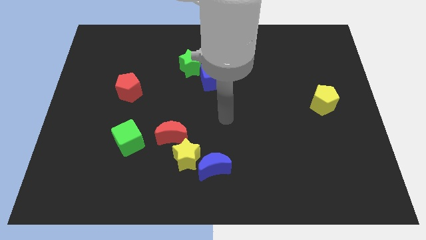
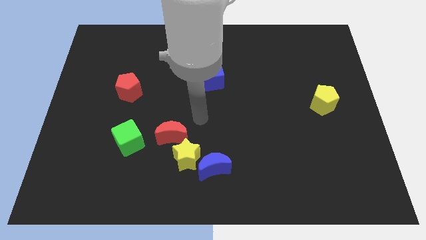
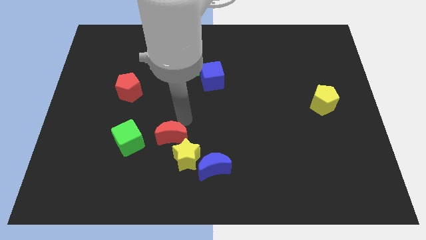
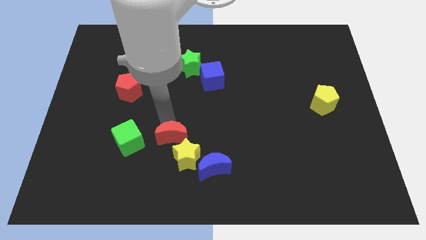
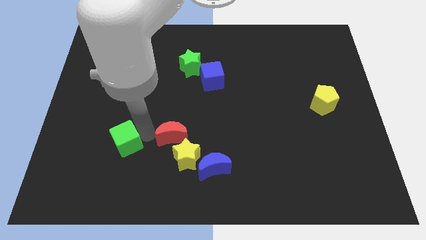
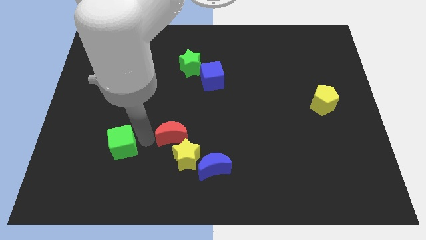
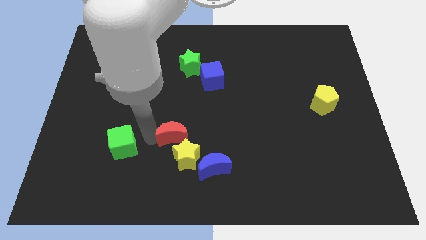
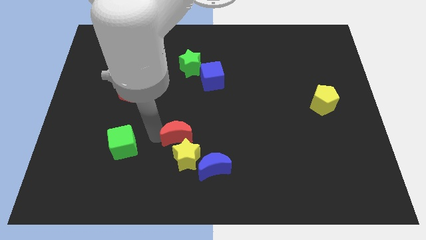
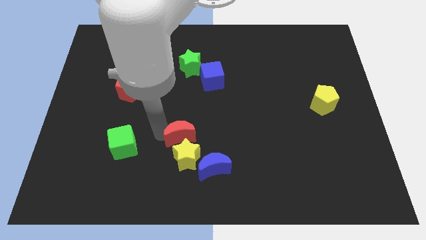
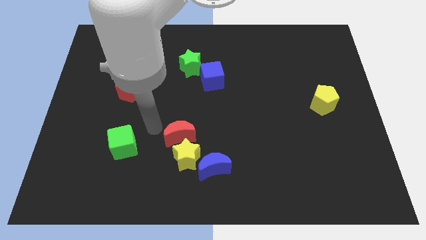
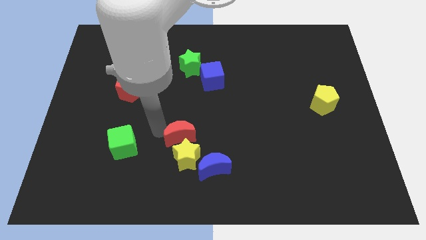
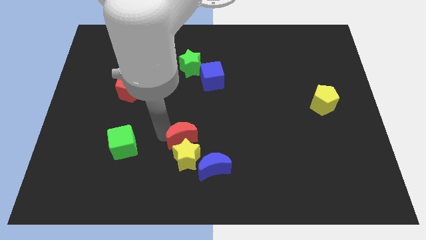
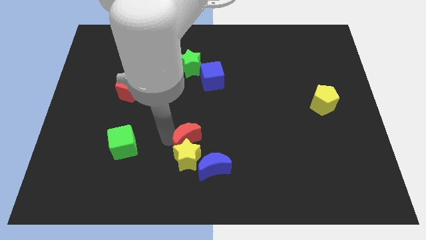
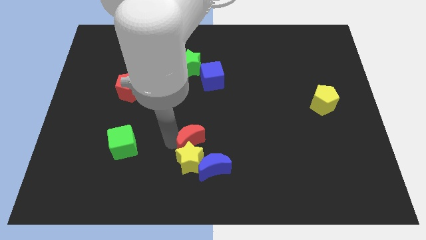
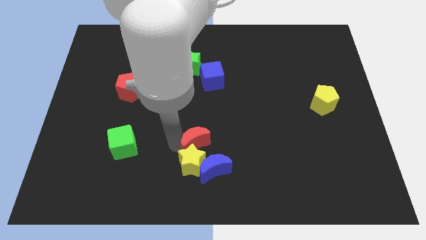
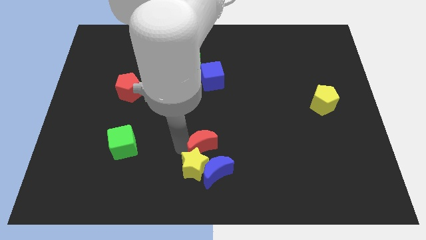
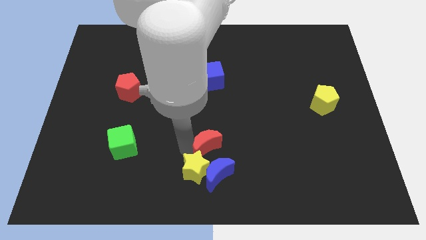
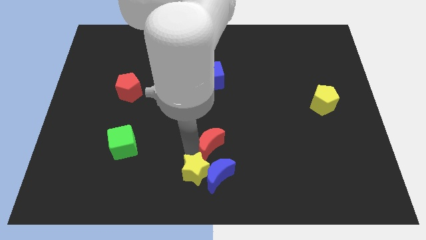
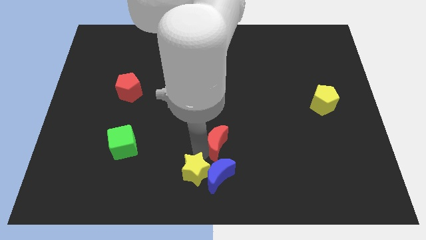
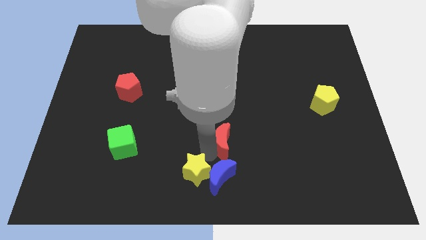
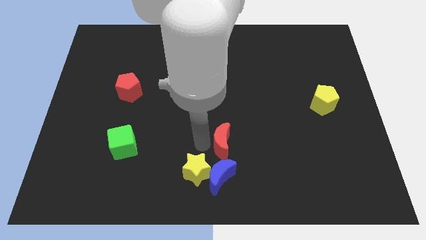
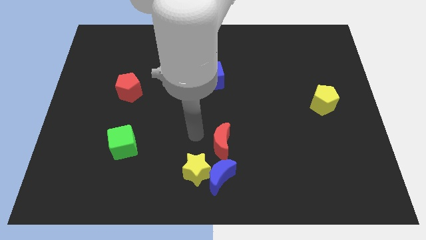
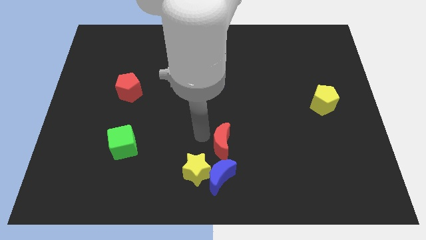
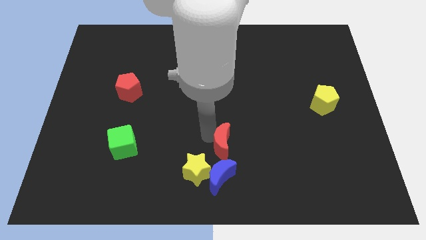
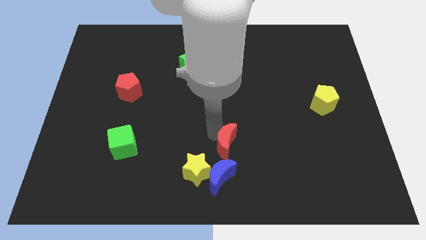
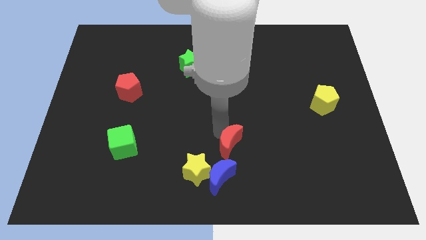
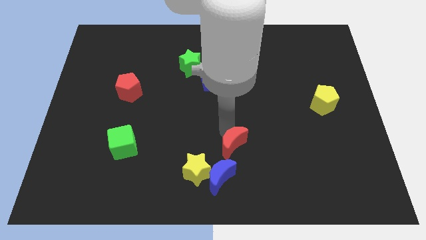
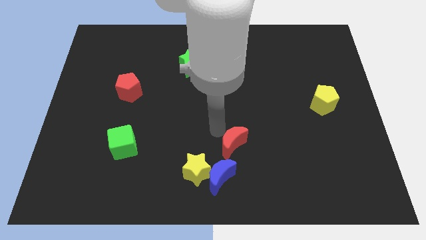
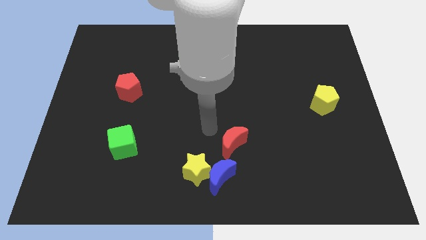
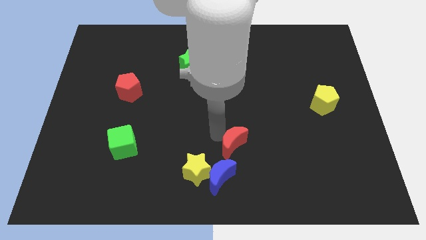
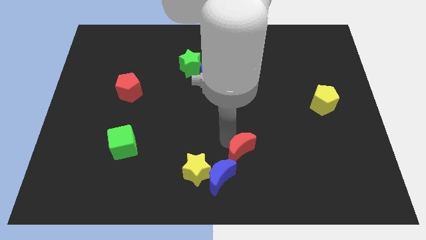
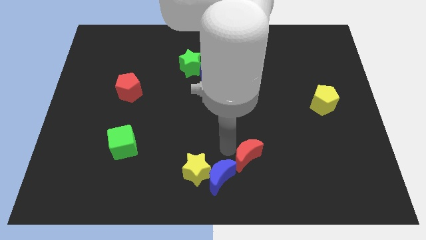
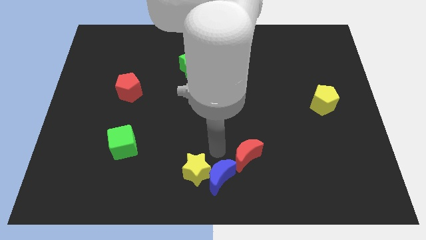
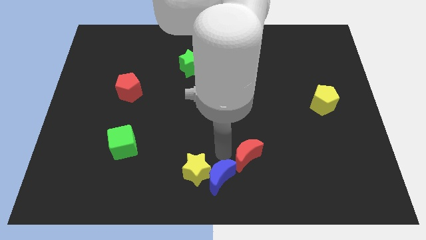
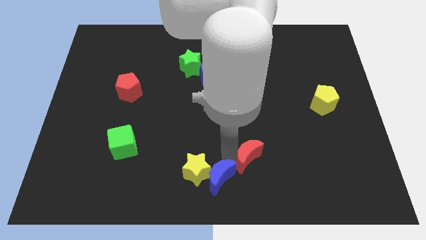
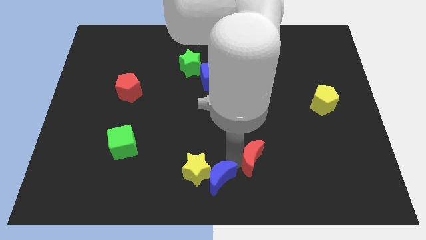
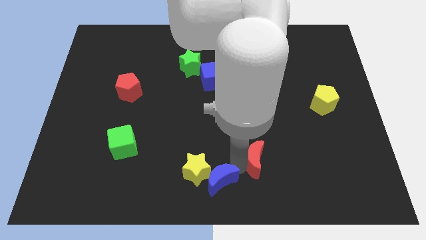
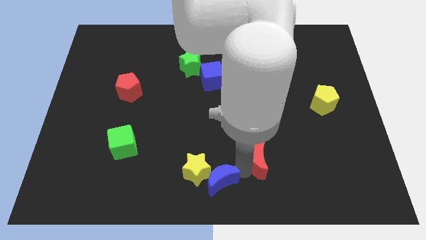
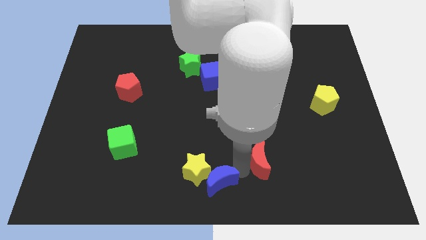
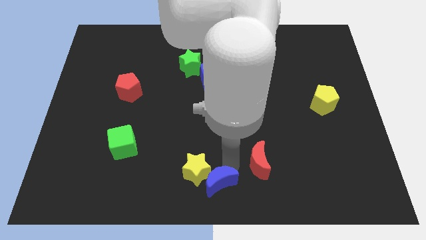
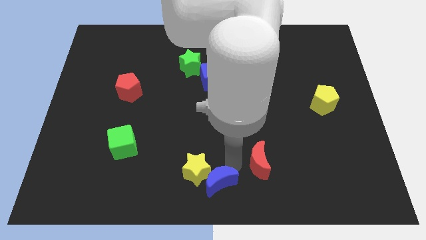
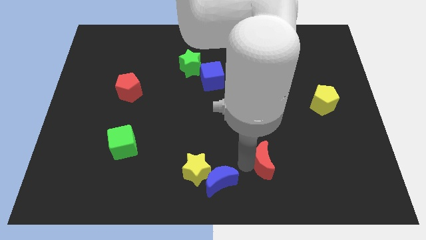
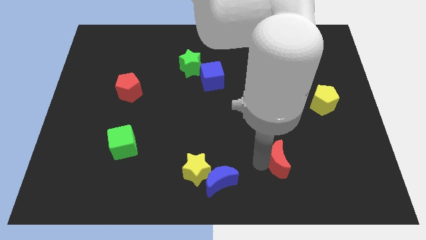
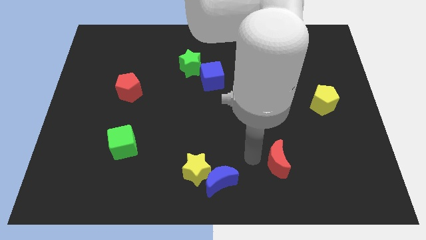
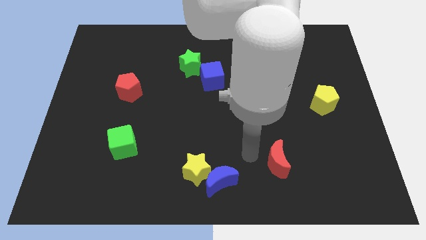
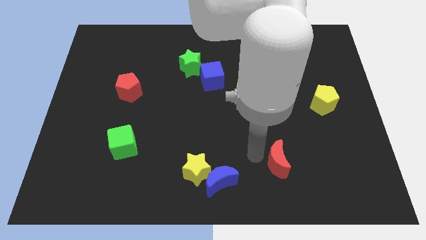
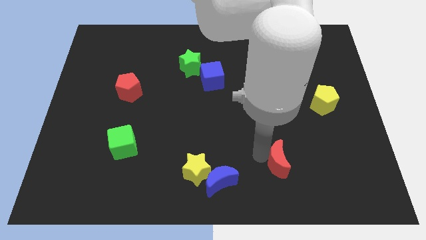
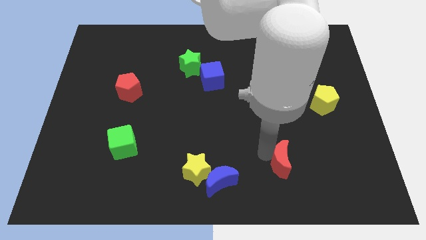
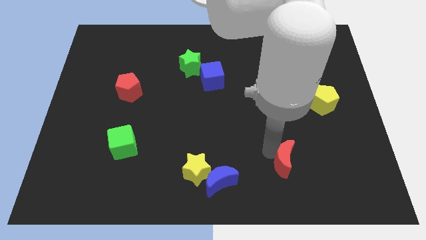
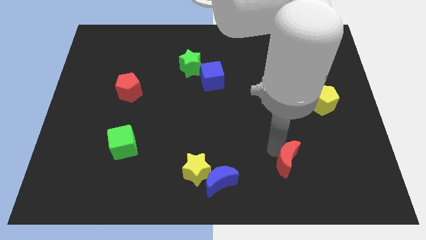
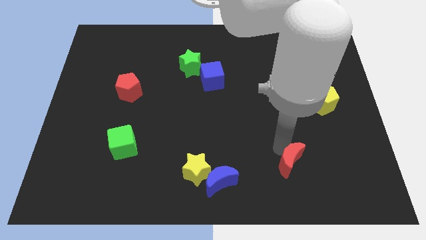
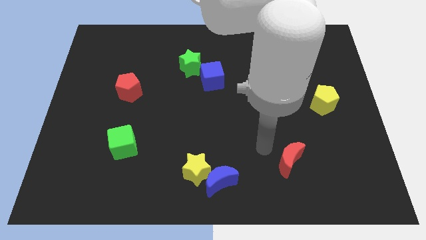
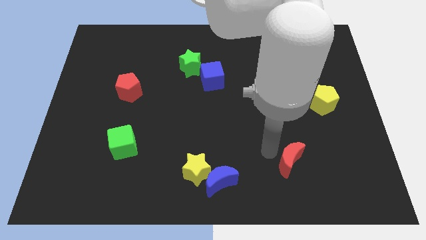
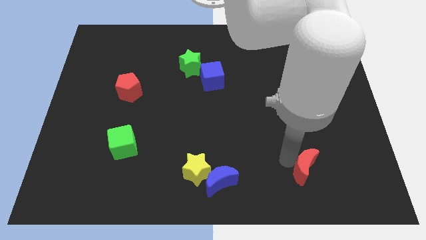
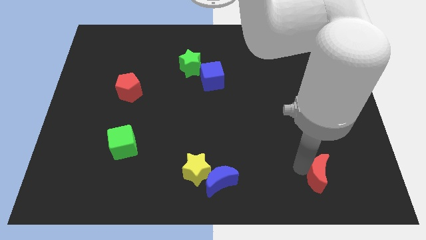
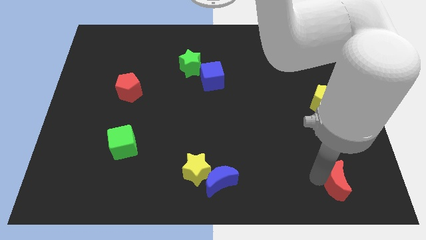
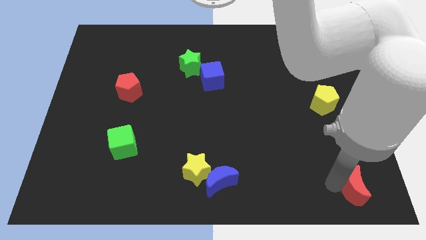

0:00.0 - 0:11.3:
put the red moon to the lower right corner
